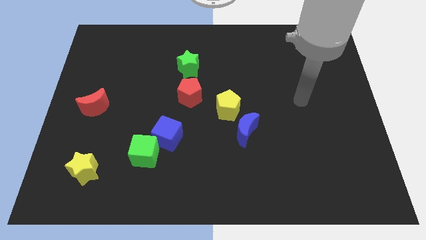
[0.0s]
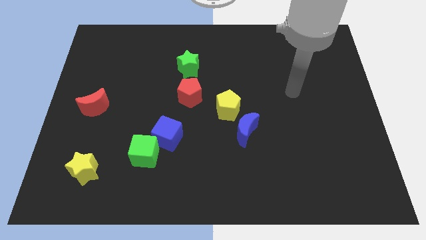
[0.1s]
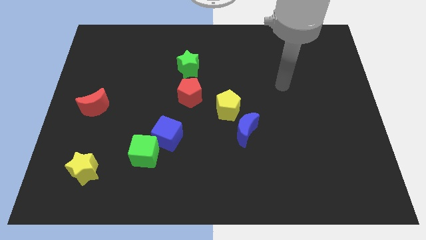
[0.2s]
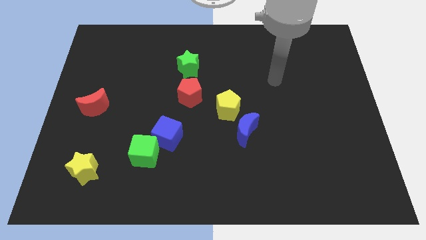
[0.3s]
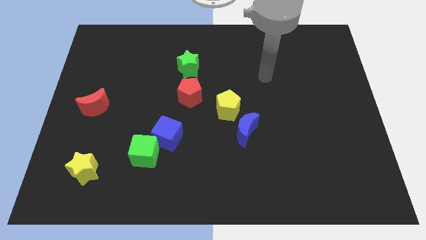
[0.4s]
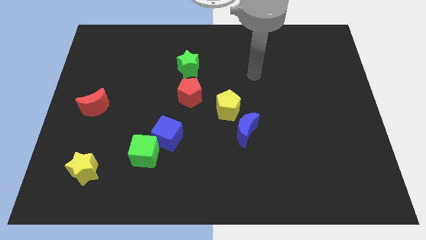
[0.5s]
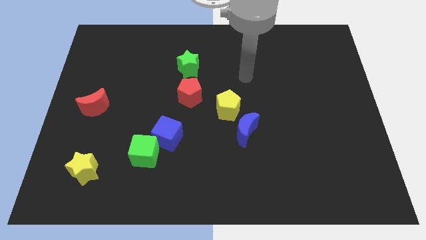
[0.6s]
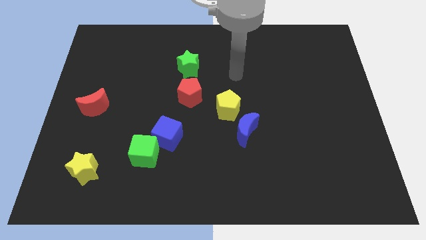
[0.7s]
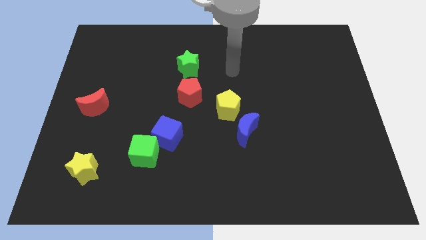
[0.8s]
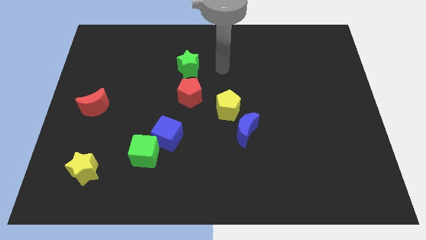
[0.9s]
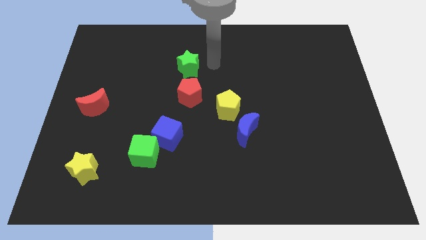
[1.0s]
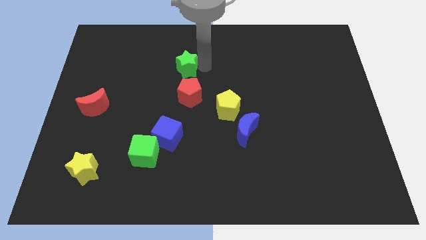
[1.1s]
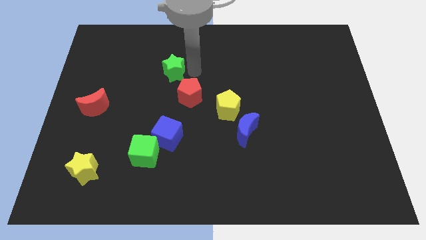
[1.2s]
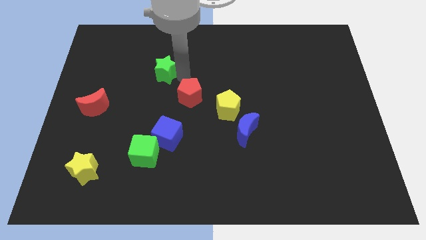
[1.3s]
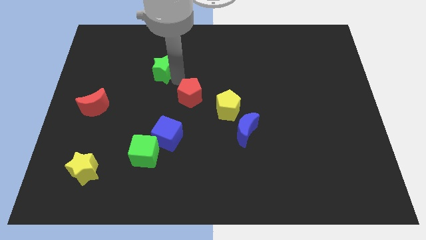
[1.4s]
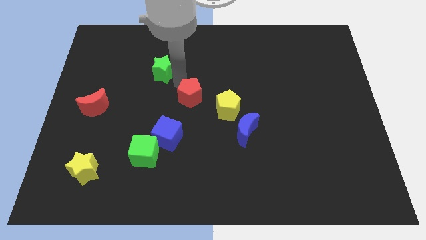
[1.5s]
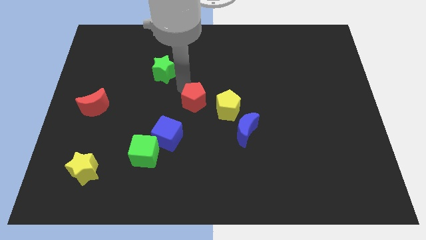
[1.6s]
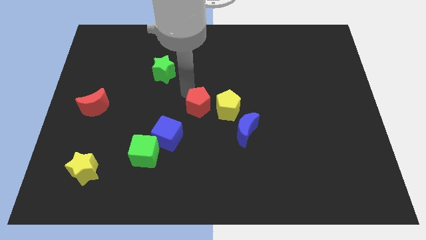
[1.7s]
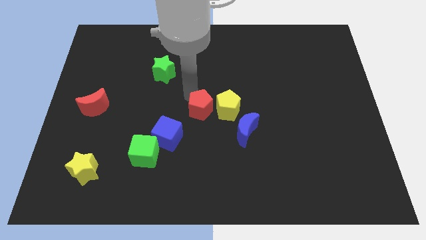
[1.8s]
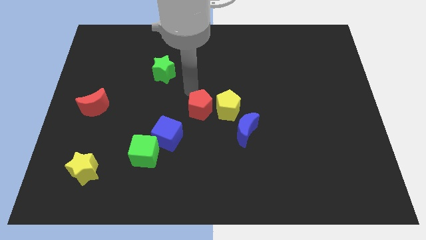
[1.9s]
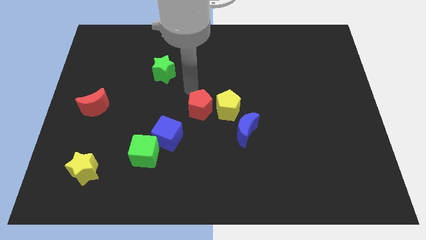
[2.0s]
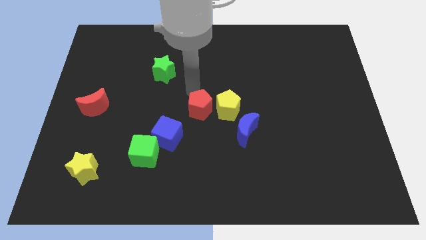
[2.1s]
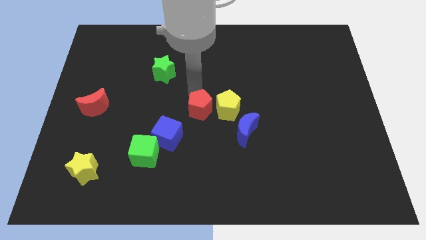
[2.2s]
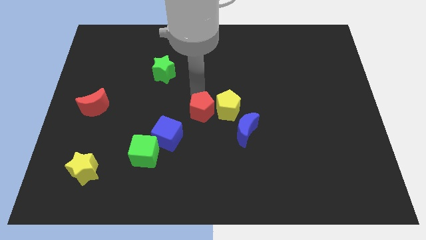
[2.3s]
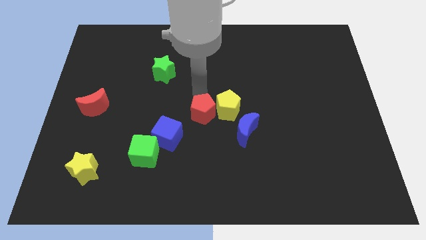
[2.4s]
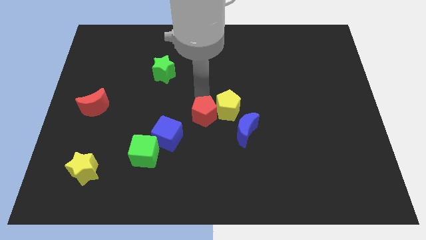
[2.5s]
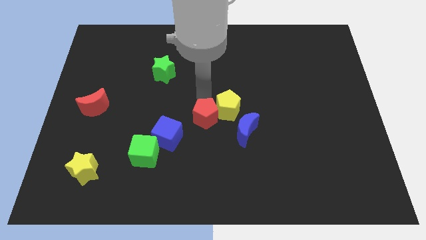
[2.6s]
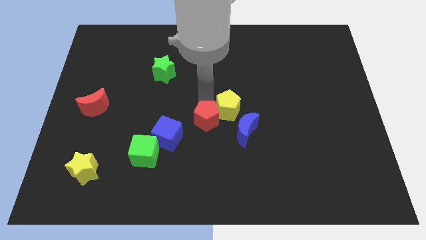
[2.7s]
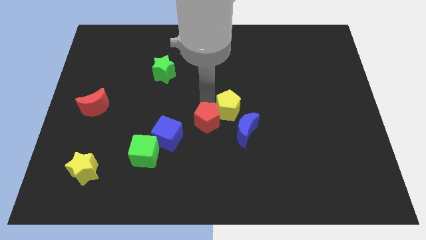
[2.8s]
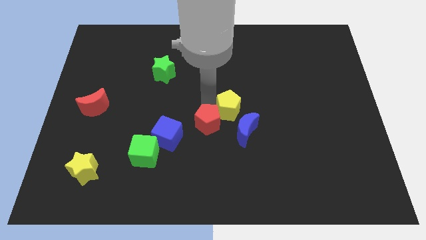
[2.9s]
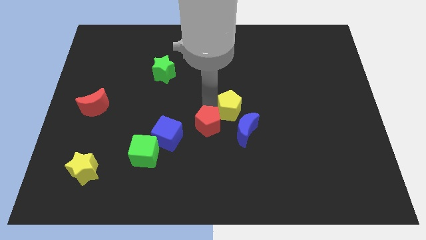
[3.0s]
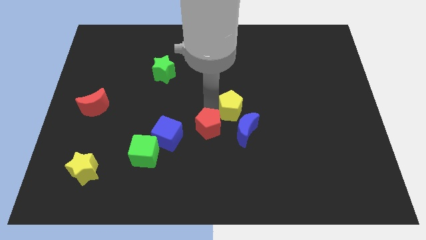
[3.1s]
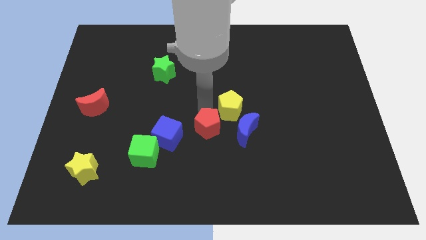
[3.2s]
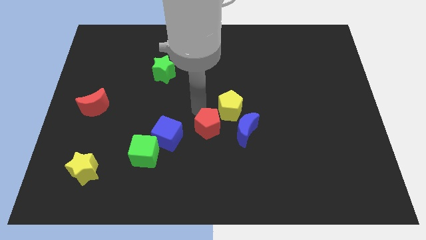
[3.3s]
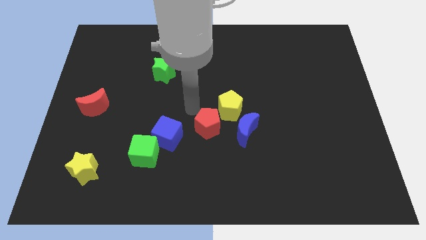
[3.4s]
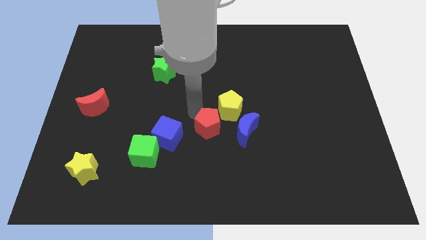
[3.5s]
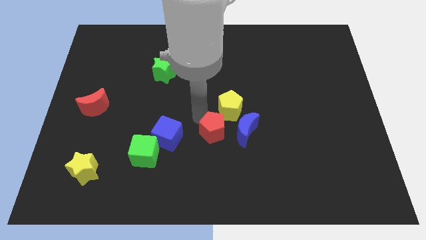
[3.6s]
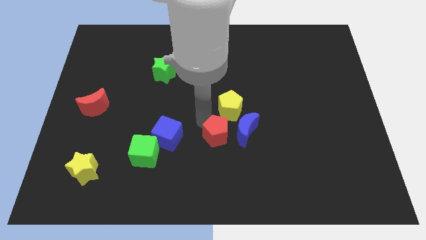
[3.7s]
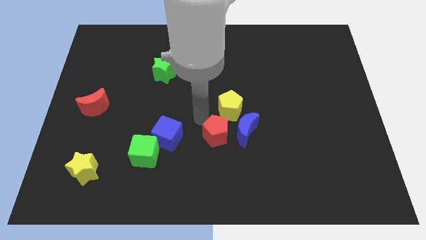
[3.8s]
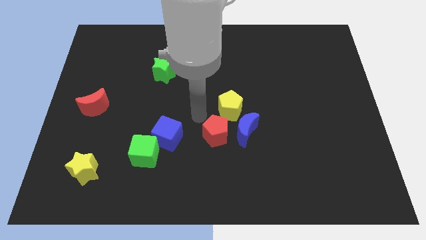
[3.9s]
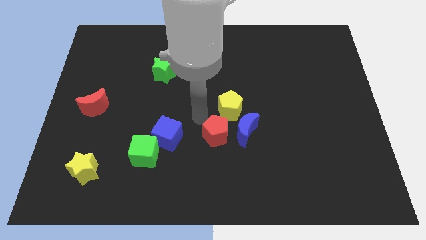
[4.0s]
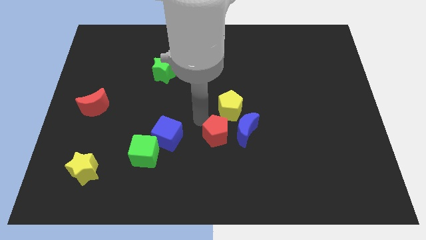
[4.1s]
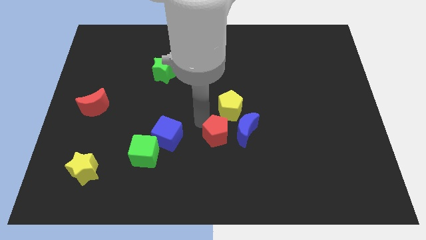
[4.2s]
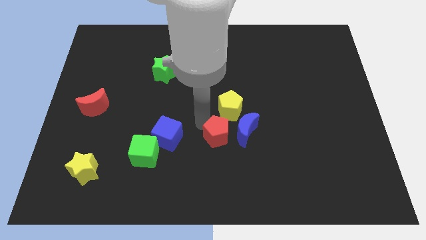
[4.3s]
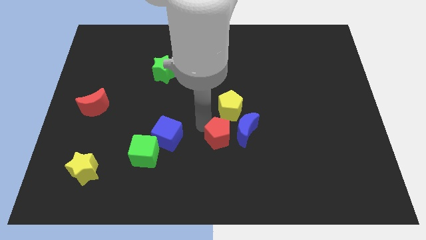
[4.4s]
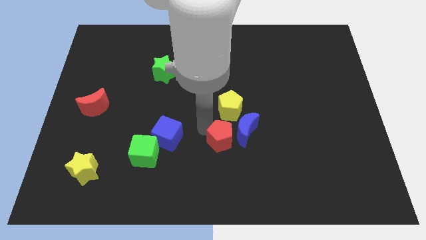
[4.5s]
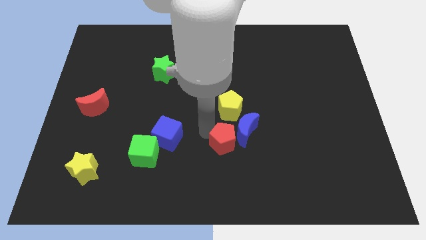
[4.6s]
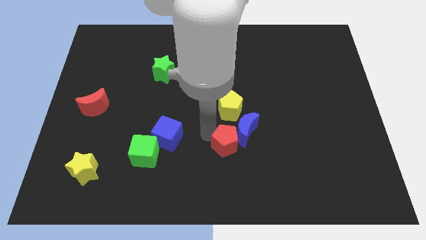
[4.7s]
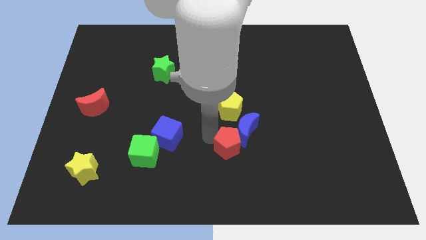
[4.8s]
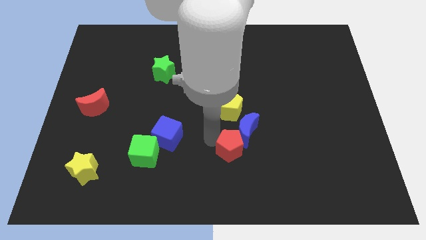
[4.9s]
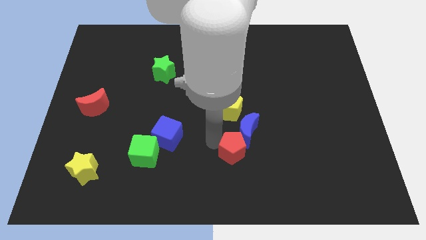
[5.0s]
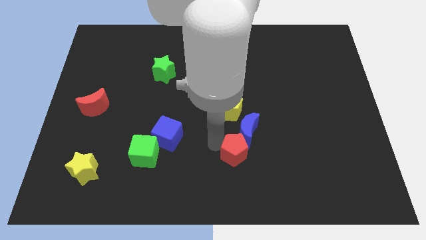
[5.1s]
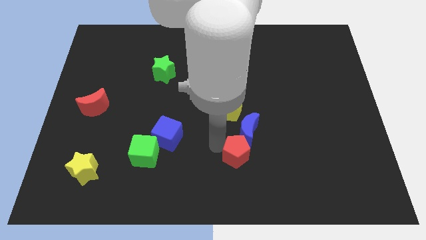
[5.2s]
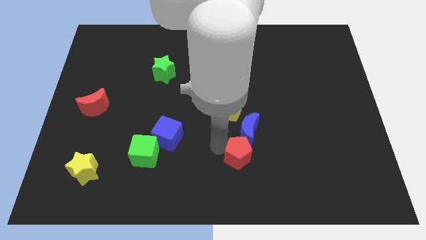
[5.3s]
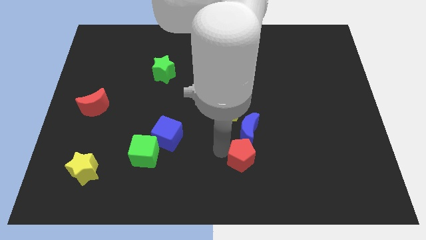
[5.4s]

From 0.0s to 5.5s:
push the red pentagon diagonally down and right

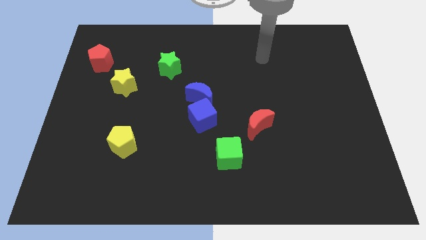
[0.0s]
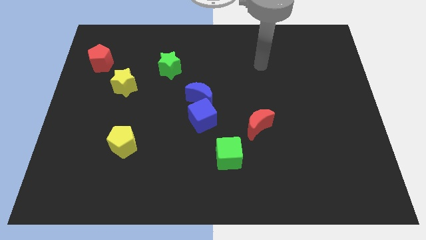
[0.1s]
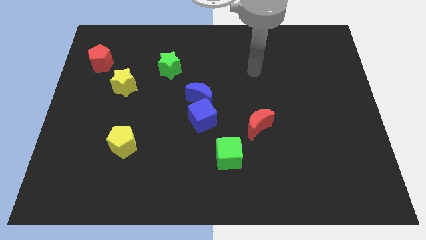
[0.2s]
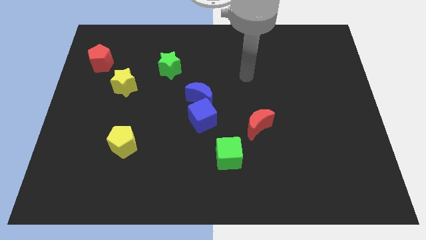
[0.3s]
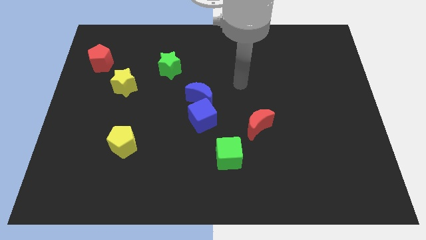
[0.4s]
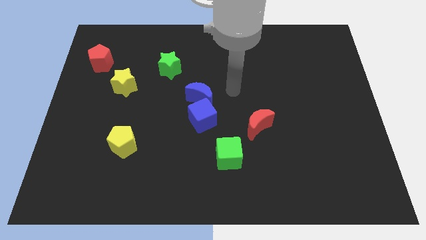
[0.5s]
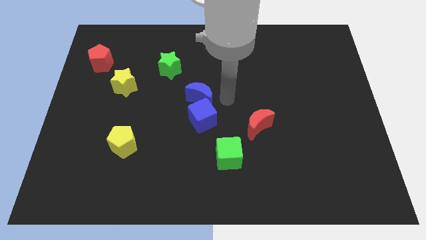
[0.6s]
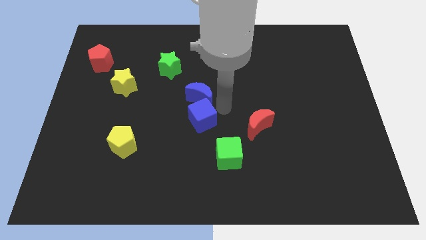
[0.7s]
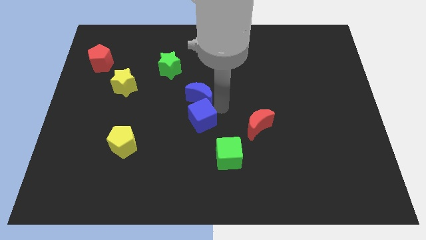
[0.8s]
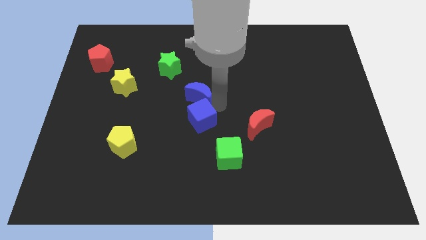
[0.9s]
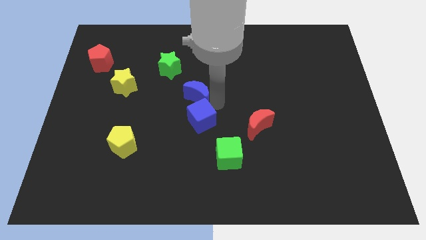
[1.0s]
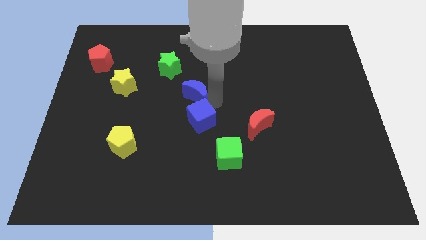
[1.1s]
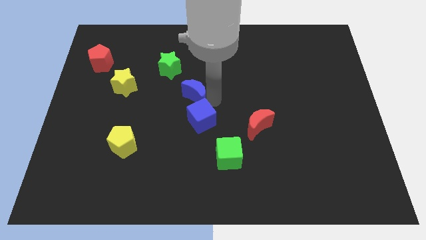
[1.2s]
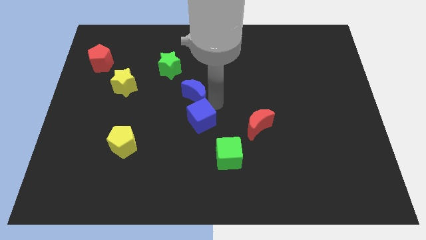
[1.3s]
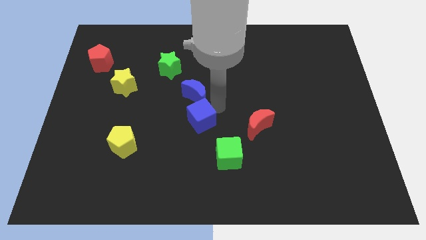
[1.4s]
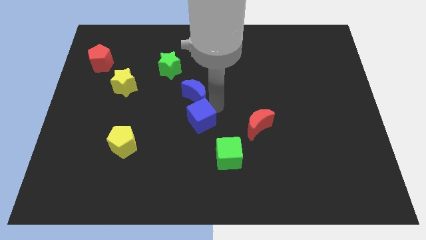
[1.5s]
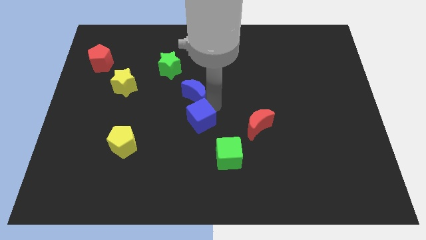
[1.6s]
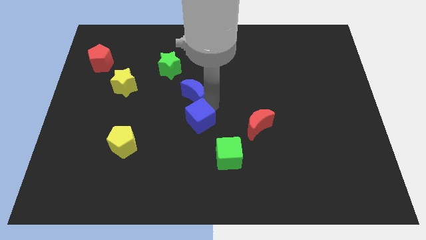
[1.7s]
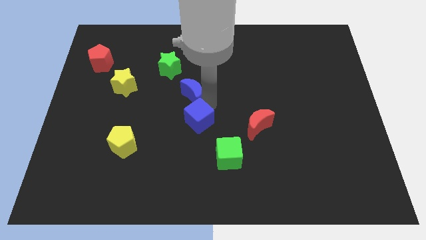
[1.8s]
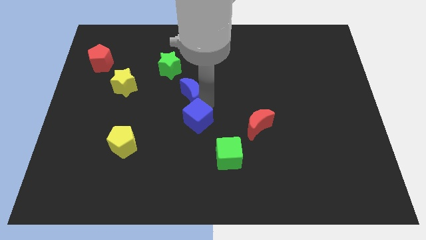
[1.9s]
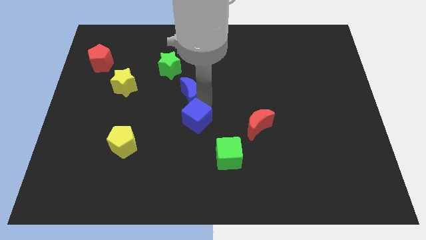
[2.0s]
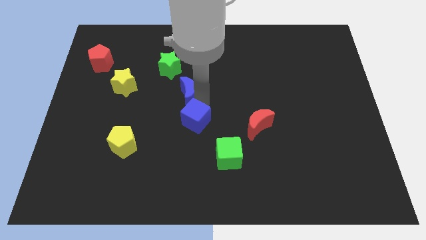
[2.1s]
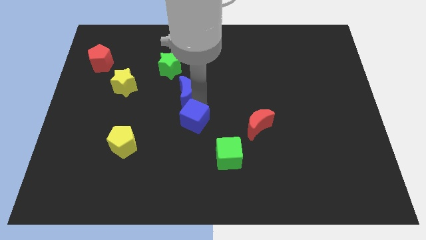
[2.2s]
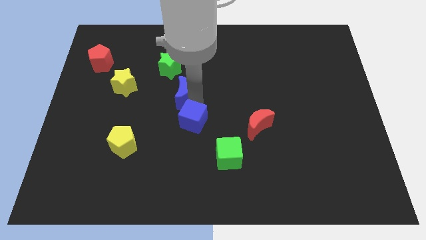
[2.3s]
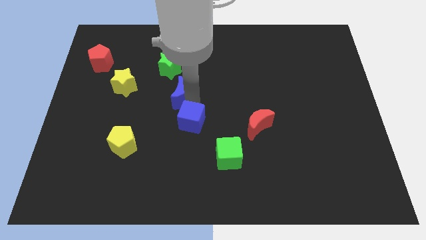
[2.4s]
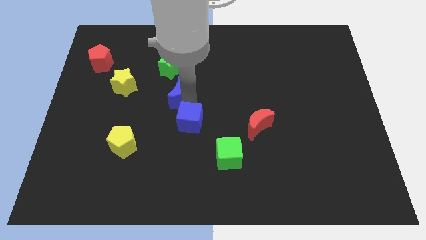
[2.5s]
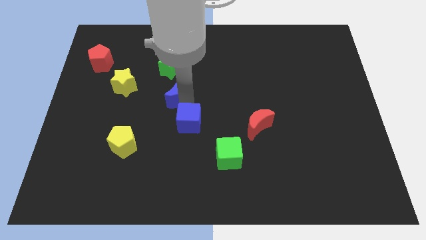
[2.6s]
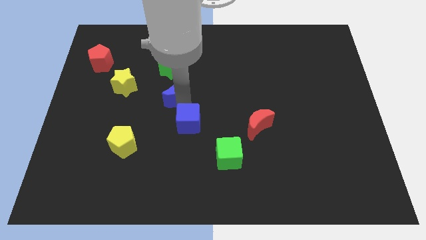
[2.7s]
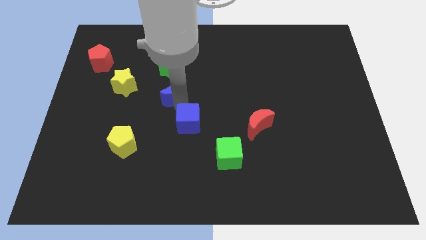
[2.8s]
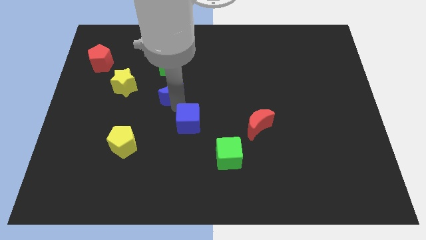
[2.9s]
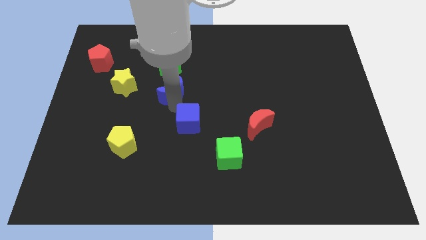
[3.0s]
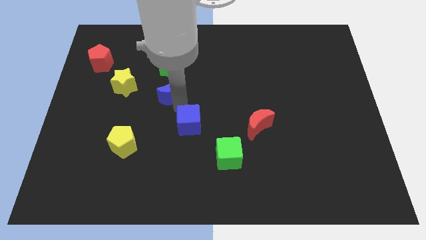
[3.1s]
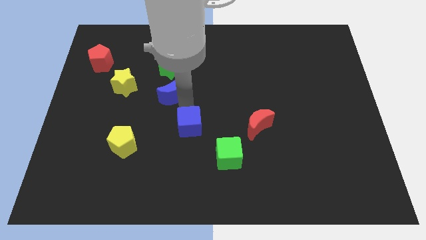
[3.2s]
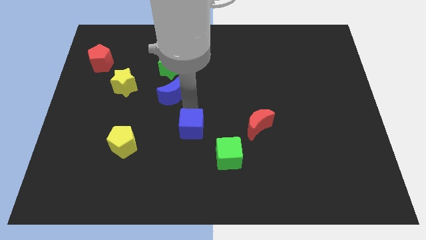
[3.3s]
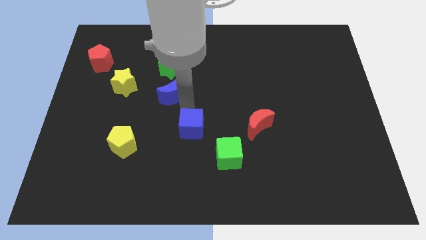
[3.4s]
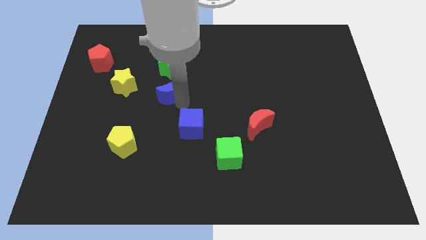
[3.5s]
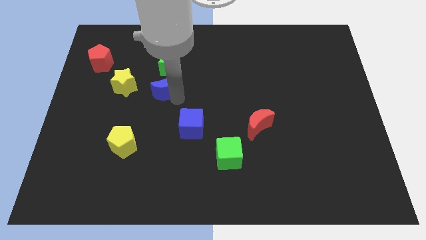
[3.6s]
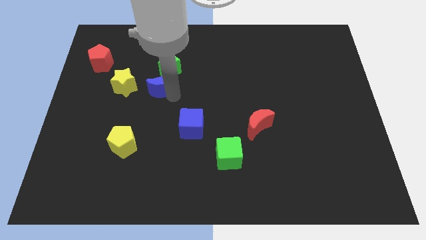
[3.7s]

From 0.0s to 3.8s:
slide the blue moon a little up and left diagonally
